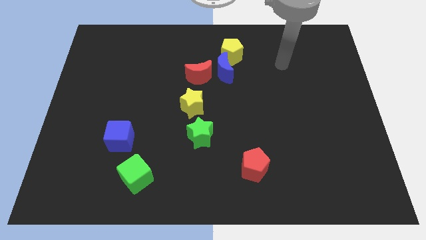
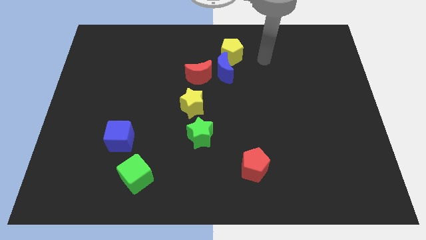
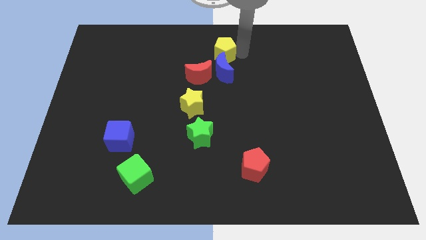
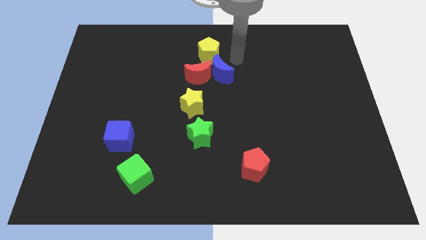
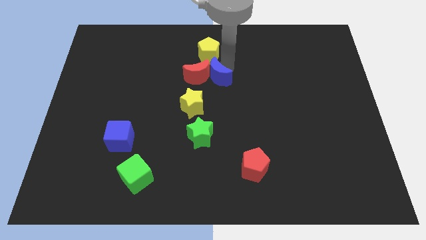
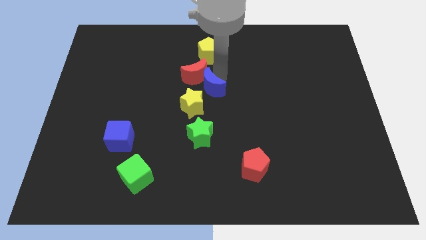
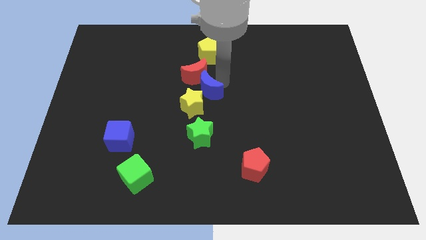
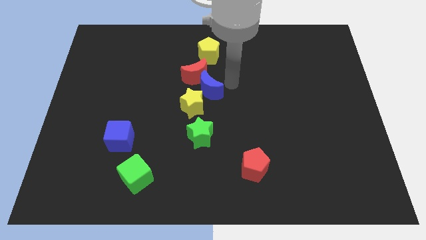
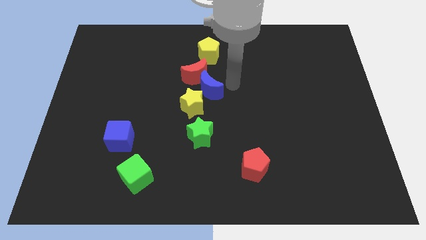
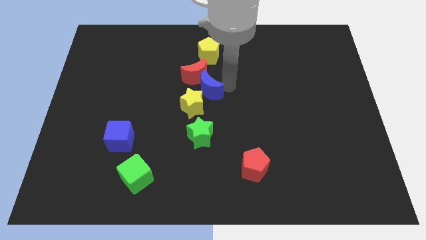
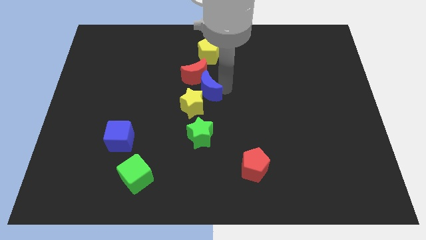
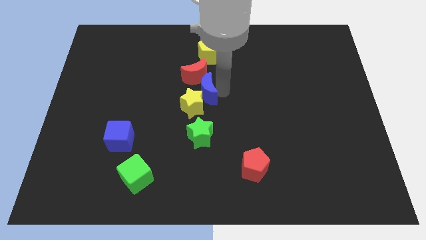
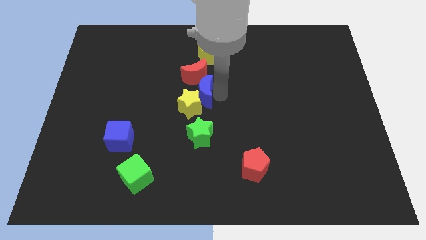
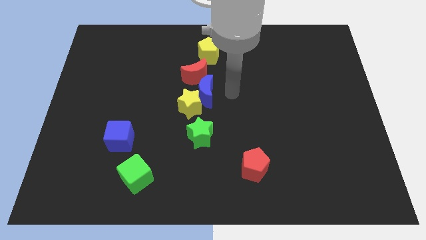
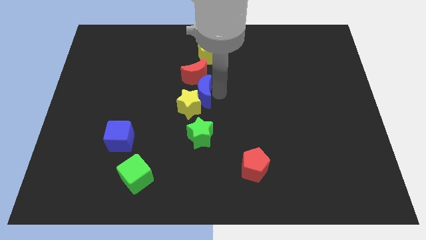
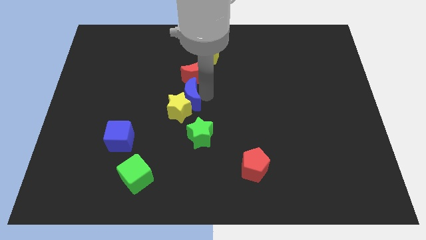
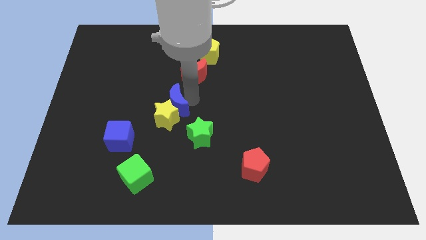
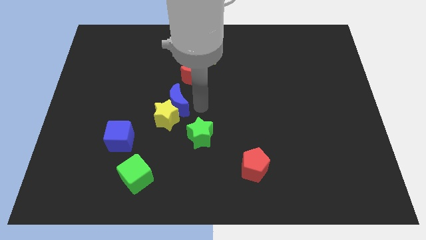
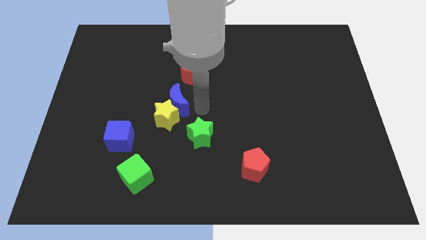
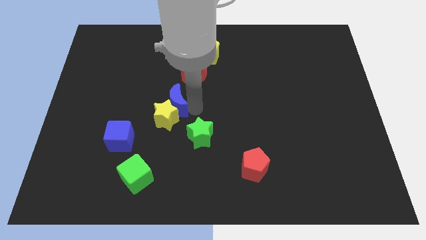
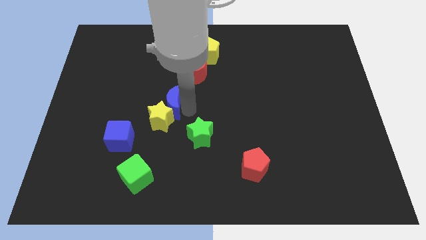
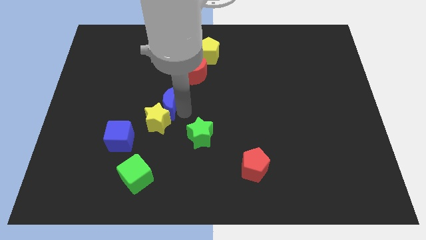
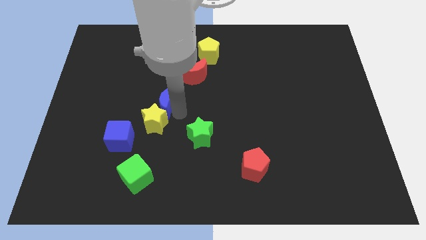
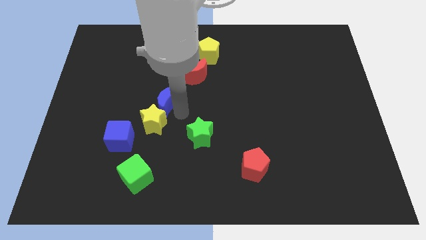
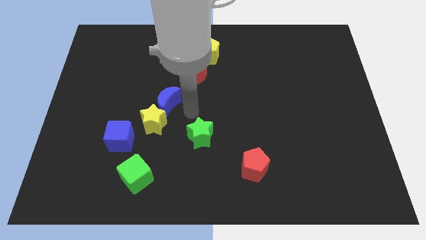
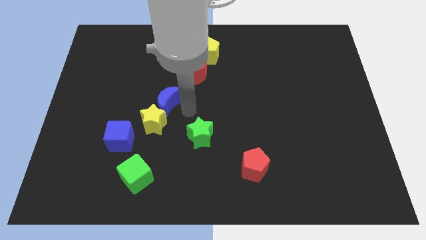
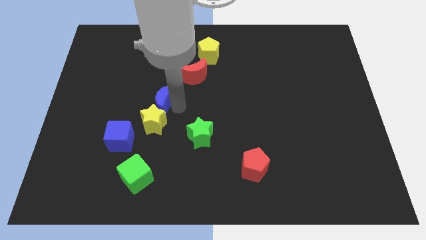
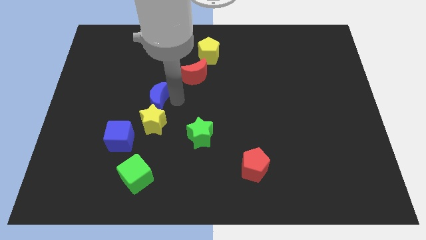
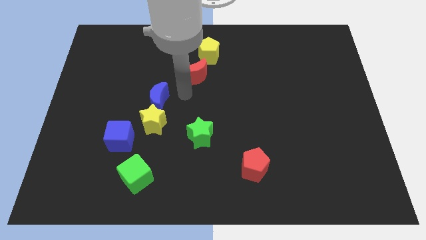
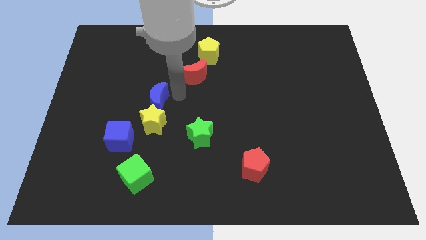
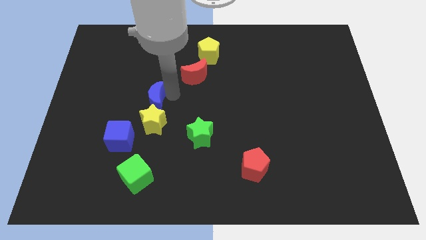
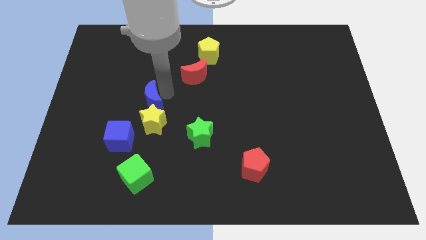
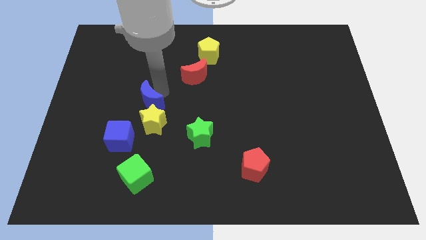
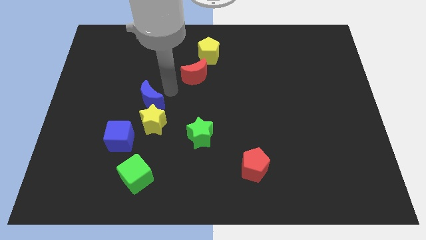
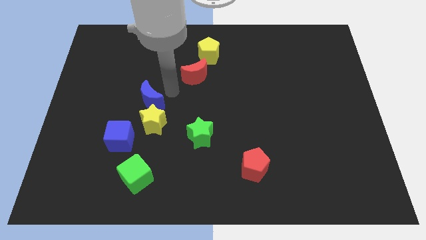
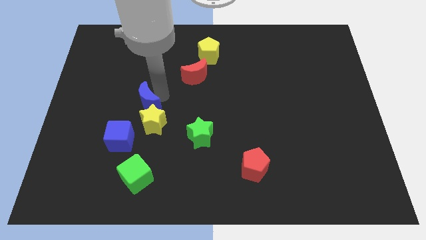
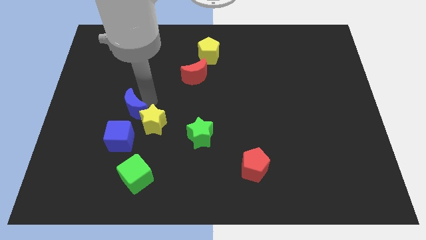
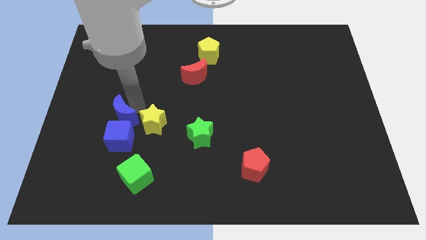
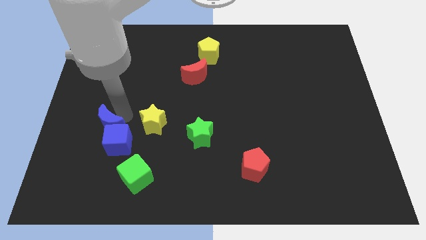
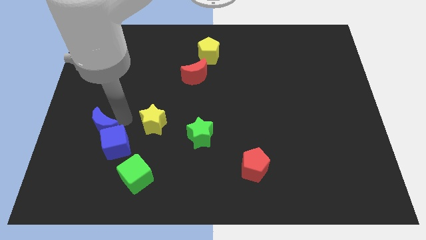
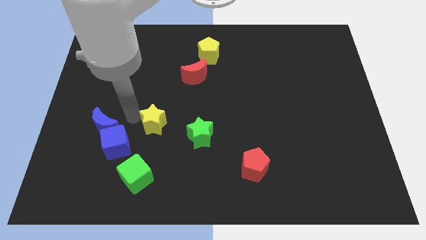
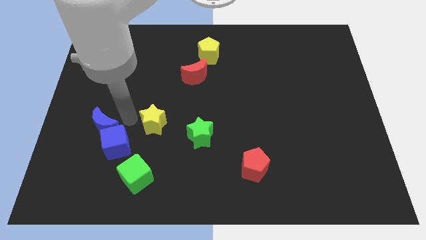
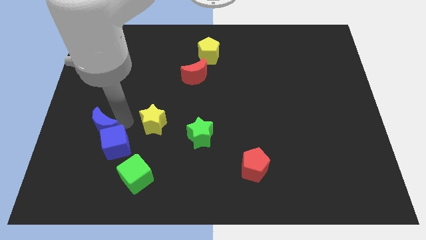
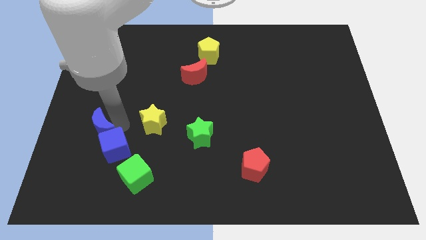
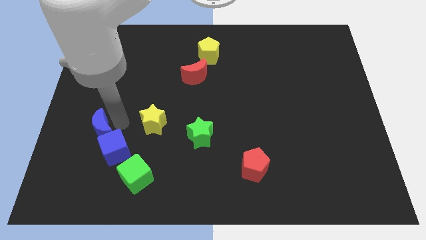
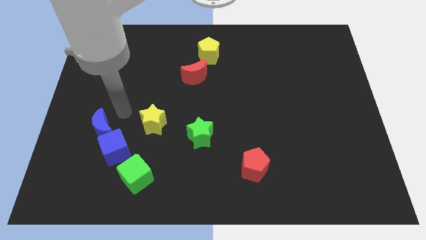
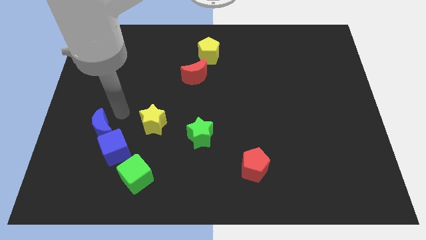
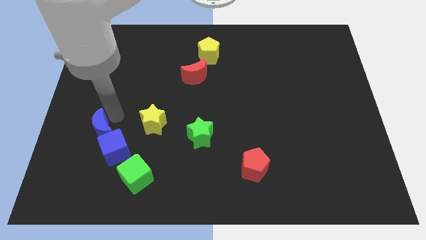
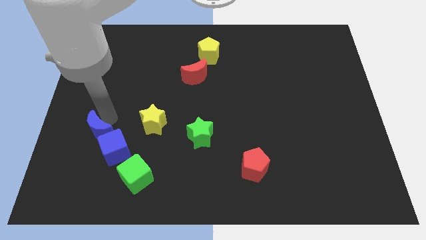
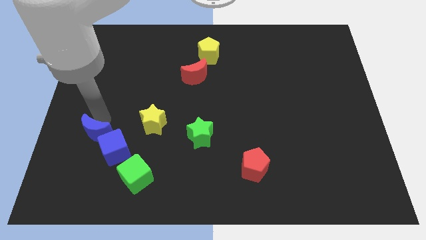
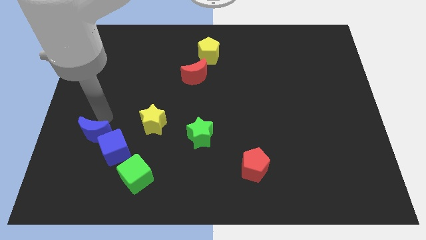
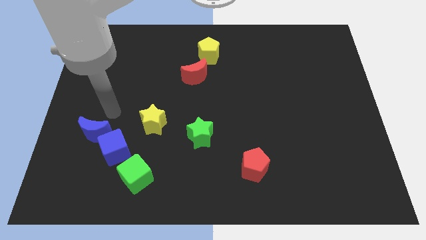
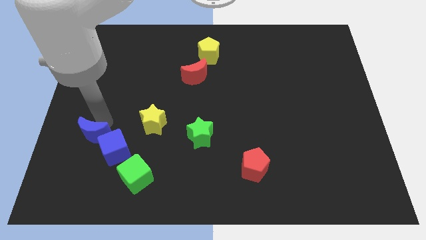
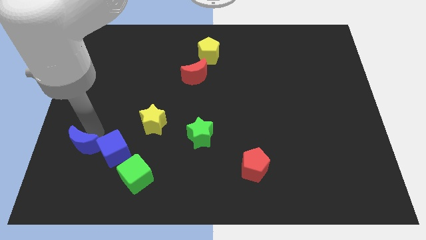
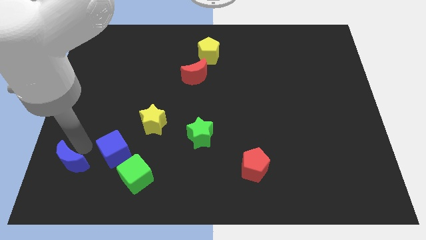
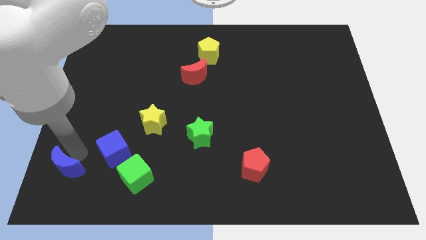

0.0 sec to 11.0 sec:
slide the blue moon to the bottom left

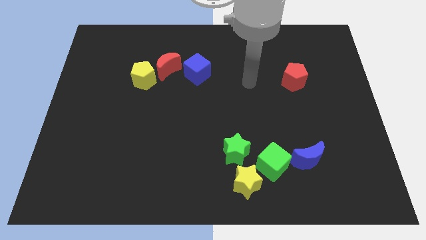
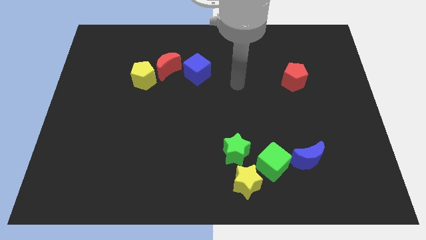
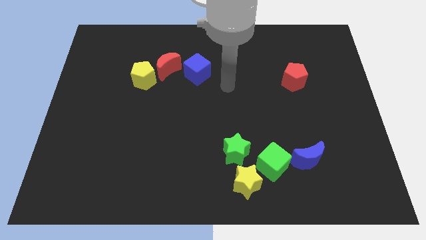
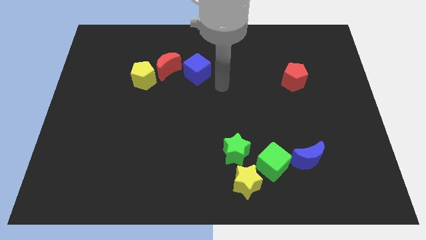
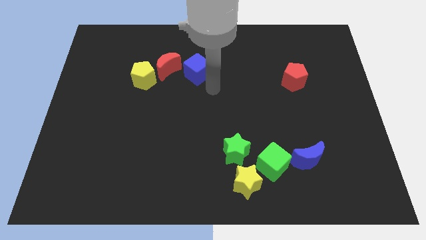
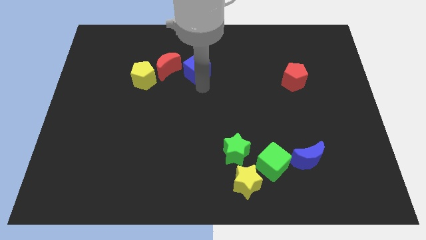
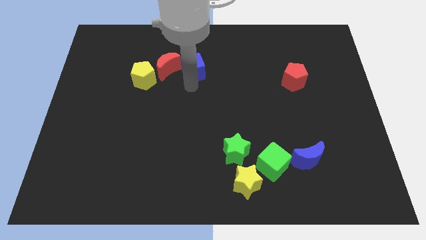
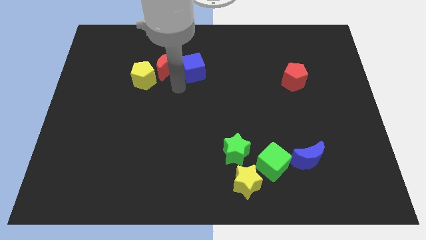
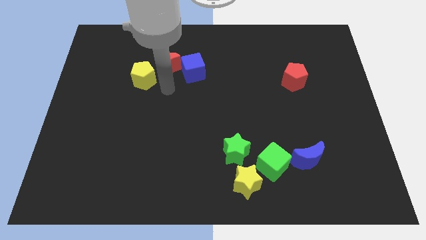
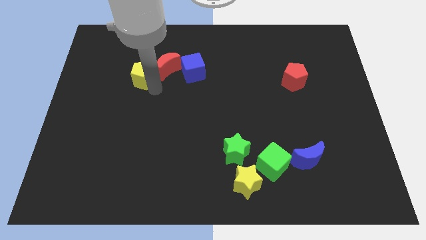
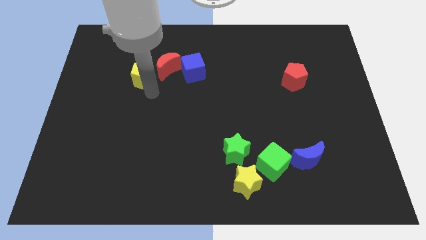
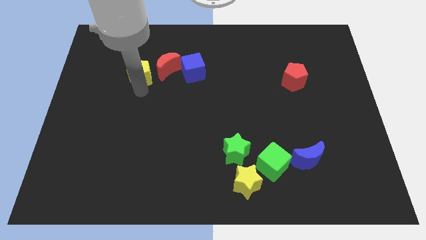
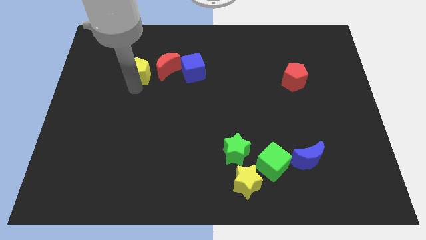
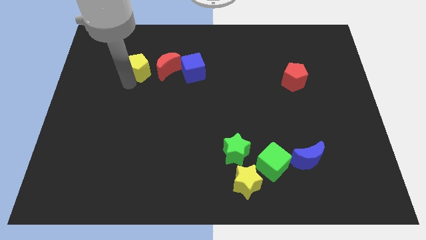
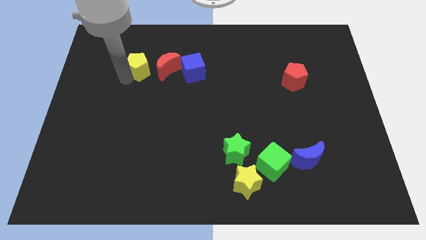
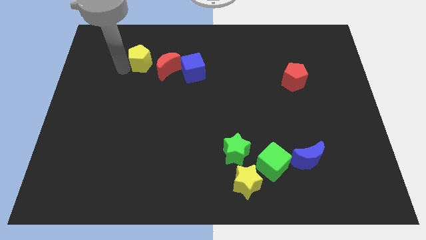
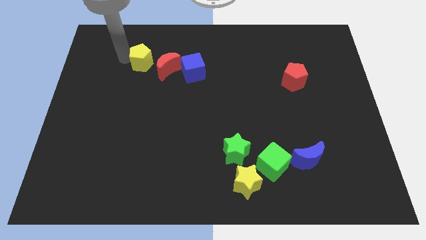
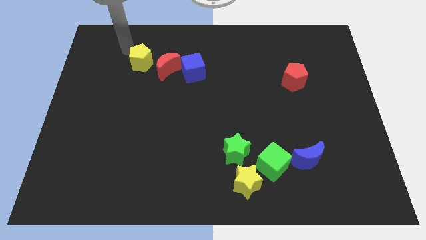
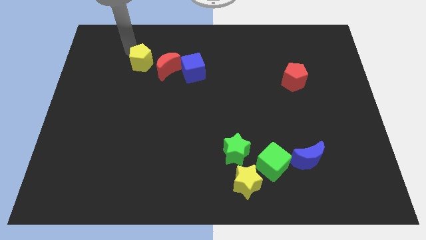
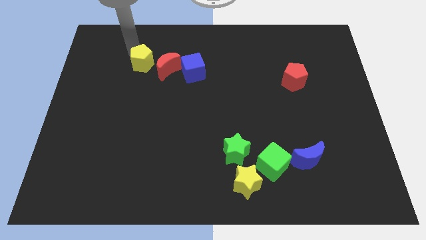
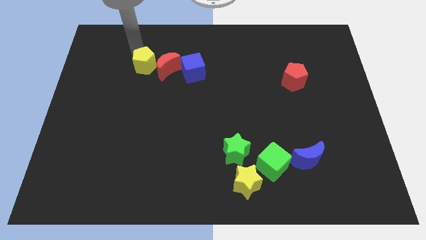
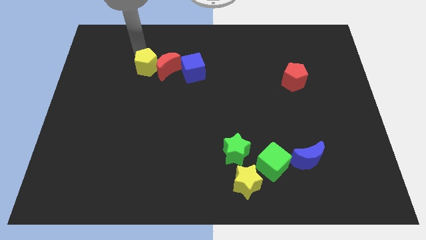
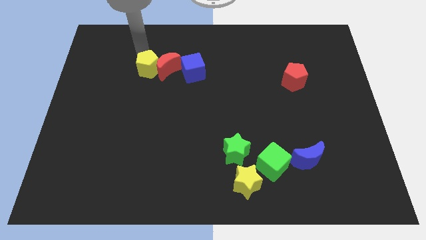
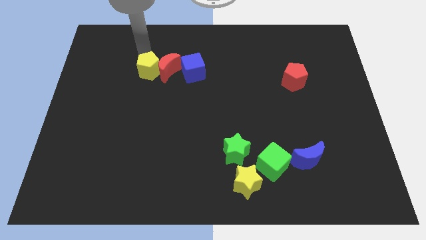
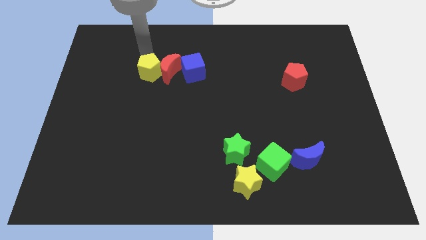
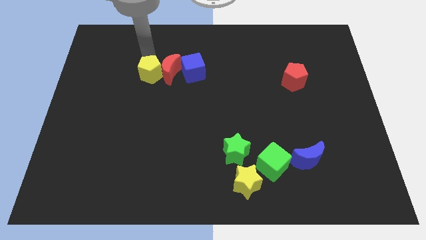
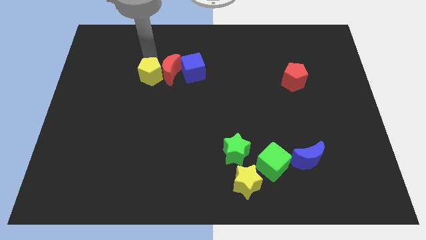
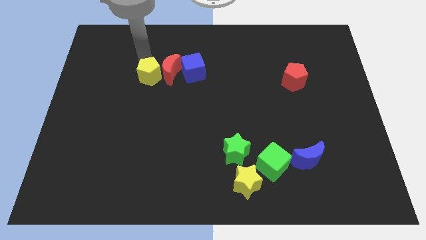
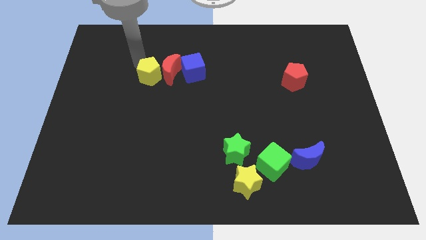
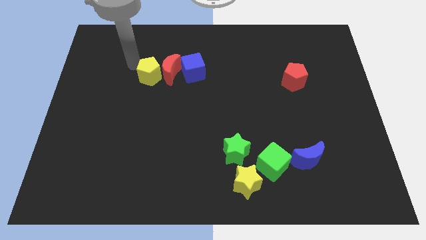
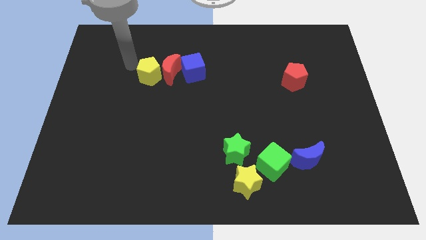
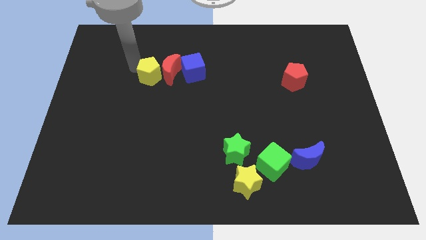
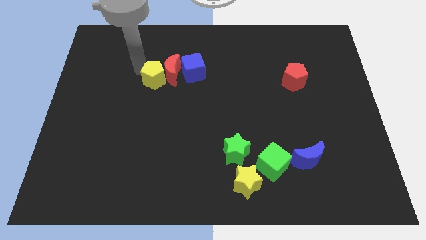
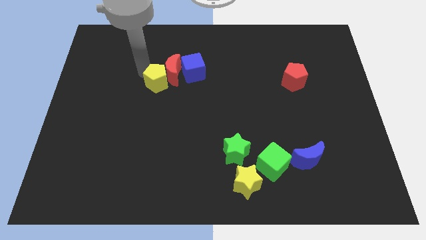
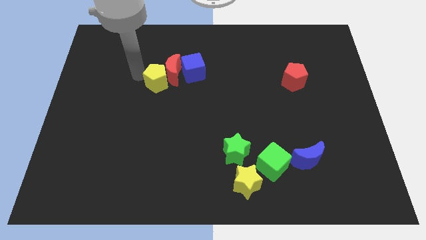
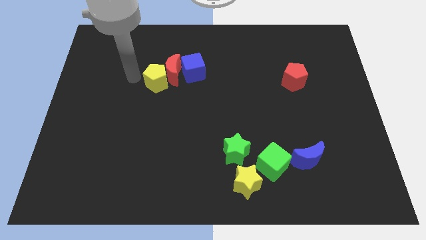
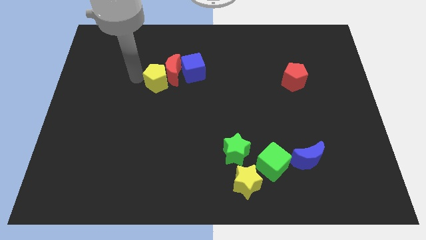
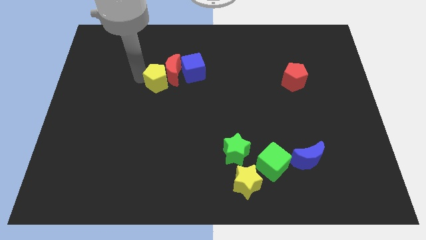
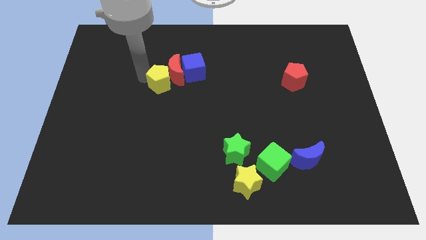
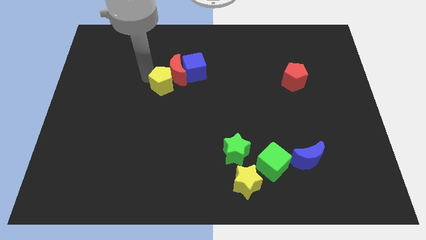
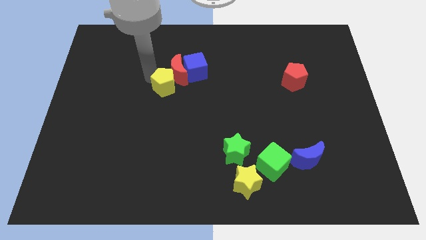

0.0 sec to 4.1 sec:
put the yellow pentagon to the middle of the board
